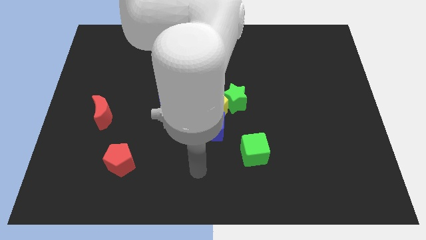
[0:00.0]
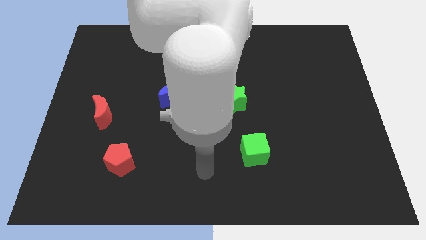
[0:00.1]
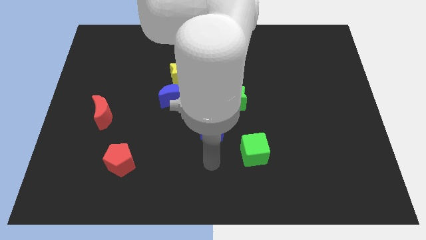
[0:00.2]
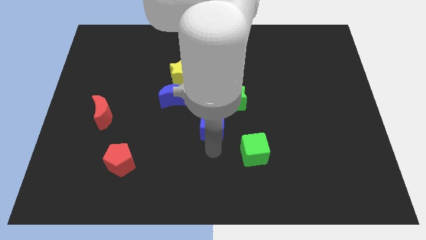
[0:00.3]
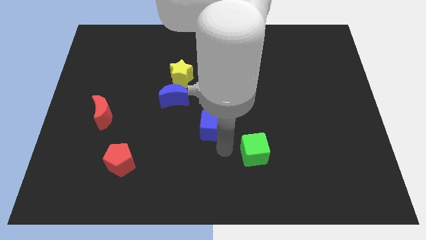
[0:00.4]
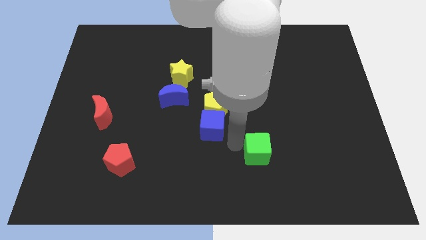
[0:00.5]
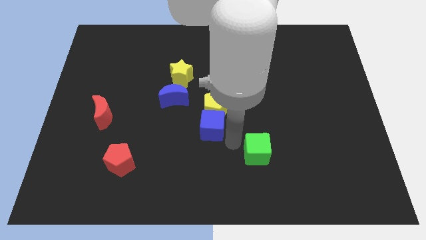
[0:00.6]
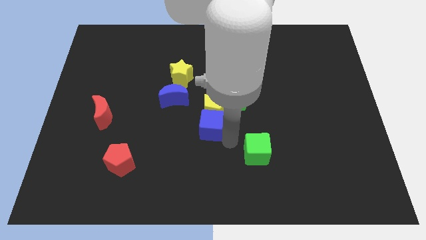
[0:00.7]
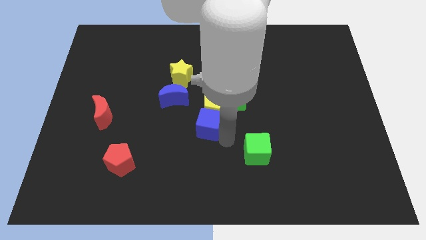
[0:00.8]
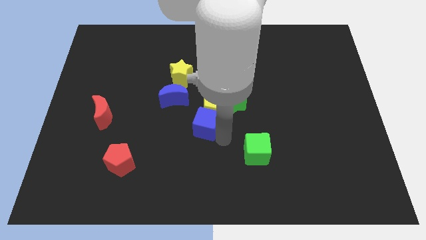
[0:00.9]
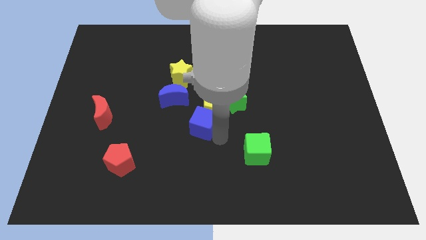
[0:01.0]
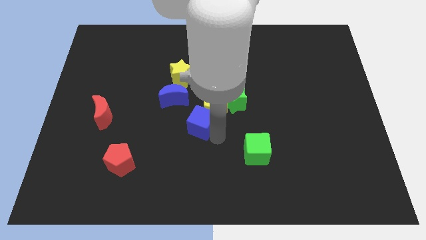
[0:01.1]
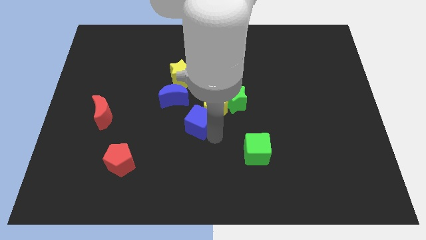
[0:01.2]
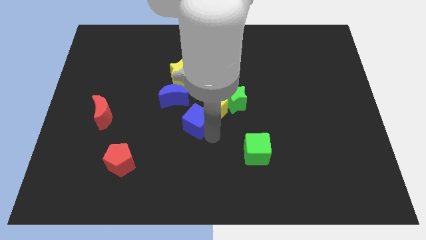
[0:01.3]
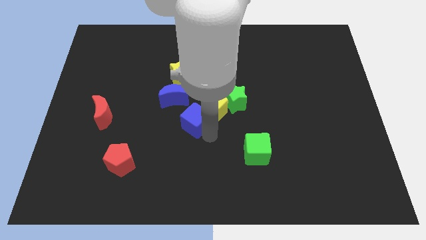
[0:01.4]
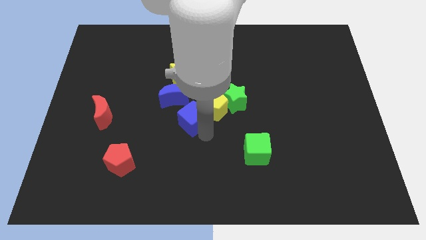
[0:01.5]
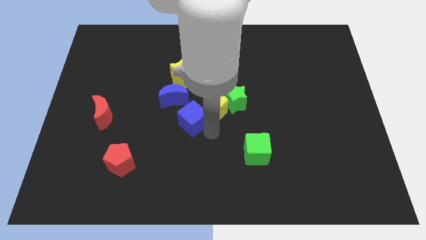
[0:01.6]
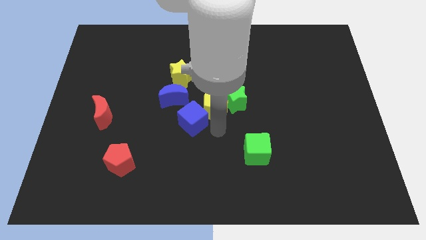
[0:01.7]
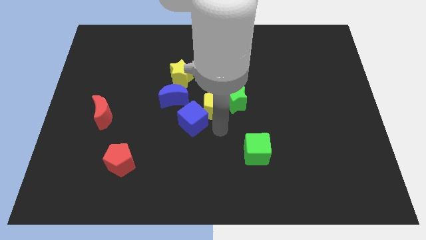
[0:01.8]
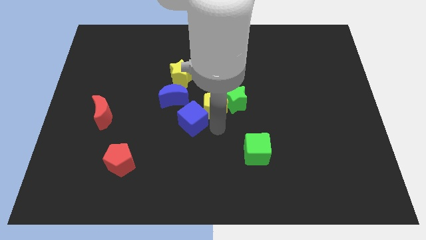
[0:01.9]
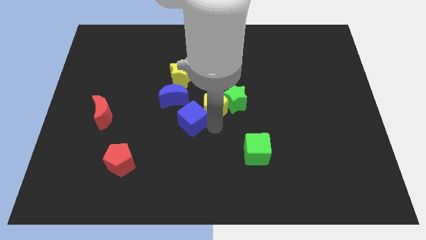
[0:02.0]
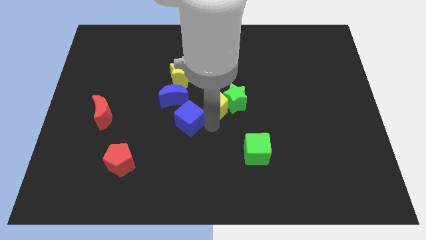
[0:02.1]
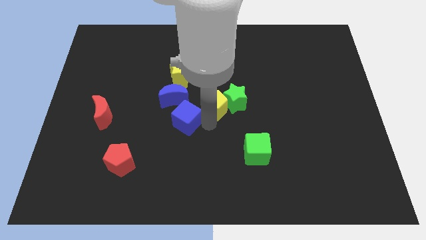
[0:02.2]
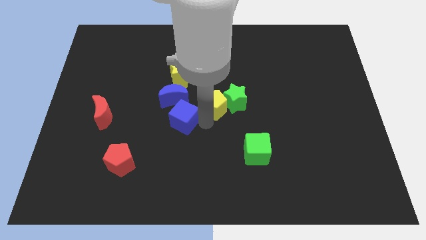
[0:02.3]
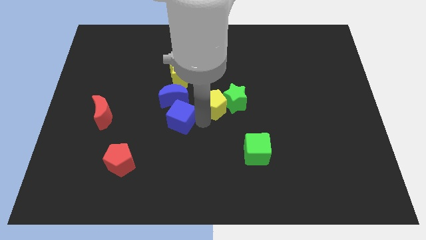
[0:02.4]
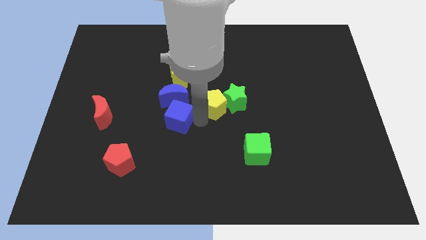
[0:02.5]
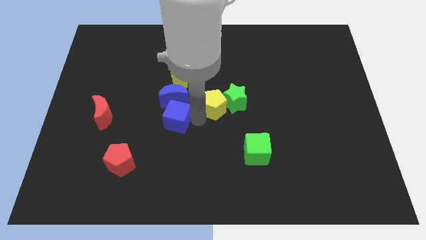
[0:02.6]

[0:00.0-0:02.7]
push the blue cube up and left a little bit

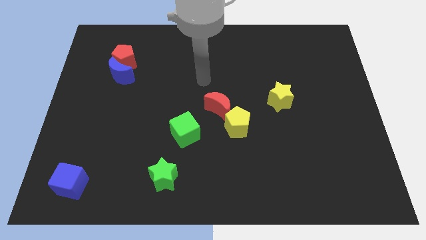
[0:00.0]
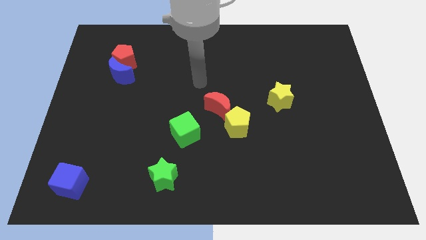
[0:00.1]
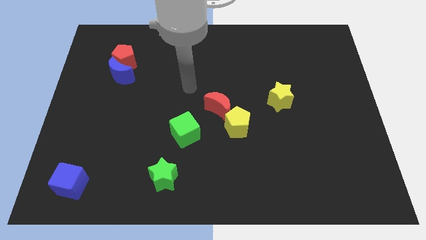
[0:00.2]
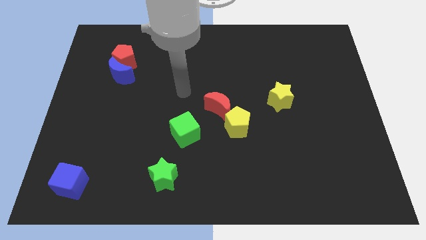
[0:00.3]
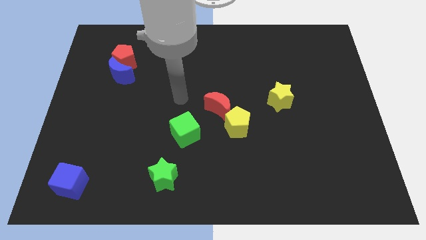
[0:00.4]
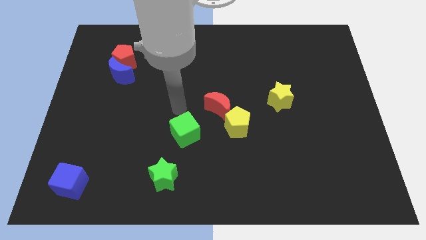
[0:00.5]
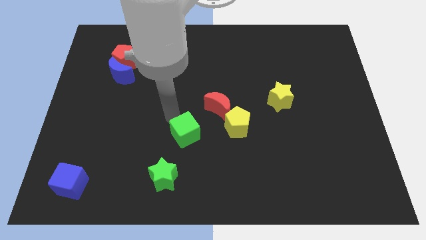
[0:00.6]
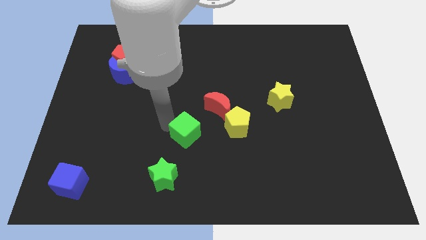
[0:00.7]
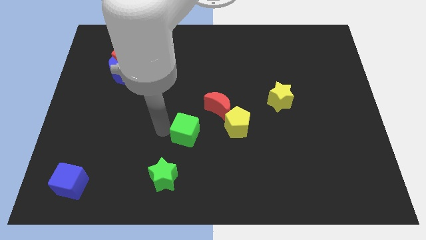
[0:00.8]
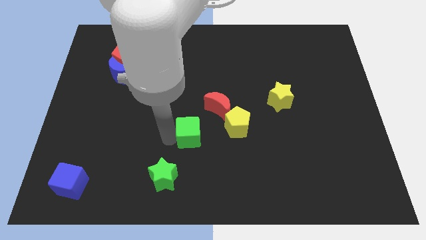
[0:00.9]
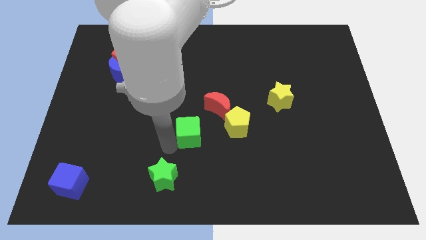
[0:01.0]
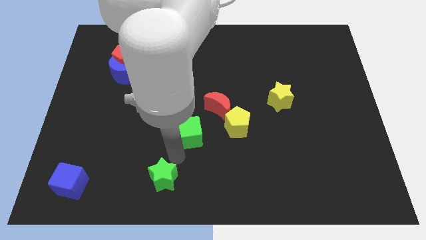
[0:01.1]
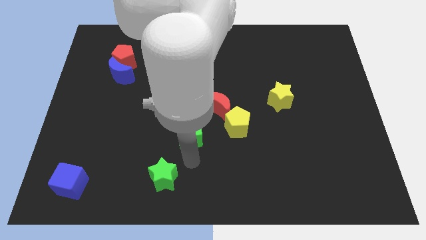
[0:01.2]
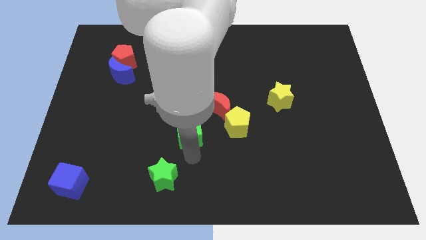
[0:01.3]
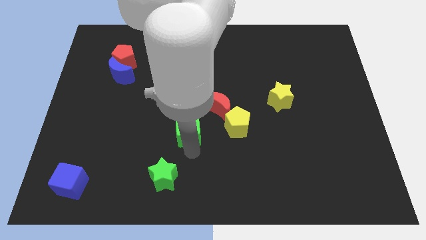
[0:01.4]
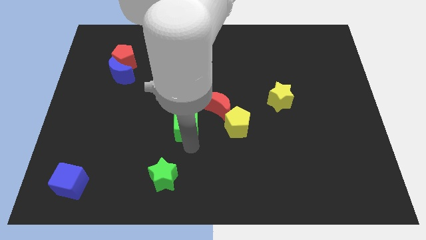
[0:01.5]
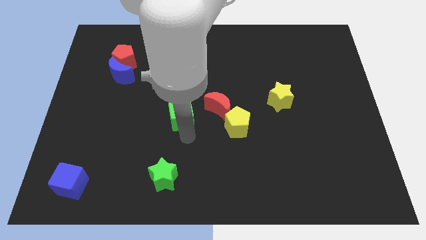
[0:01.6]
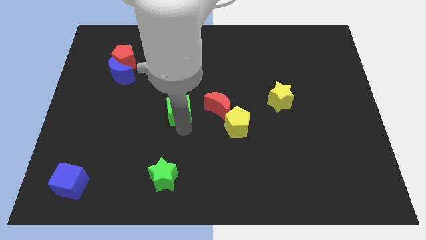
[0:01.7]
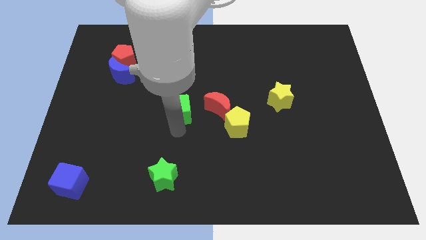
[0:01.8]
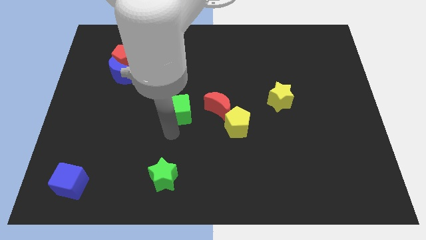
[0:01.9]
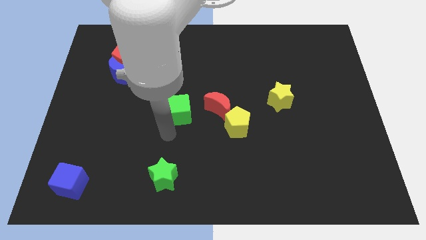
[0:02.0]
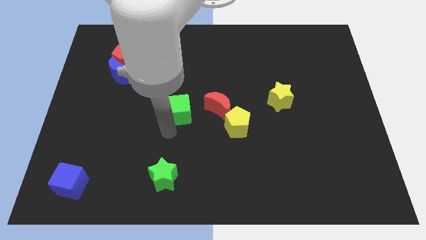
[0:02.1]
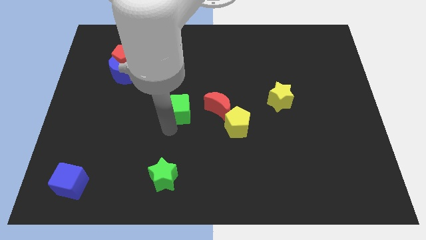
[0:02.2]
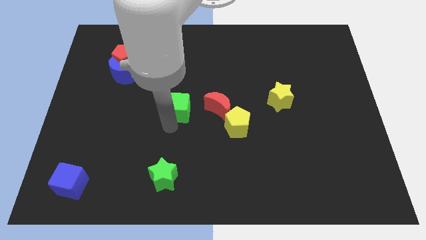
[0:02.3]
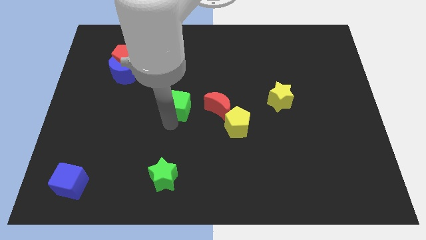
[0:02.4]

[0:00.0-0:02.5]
slide the green cube slightly up

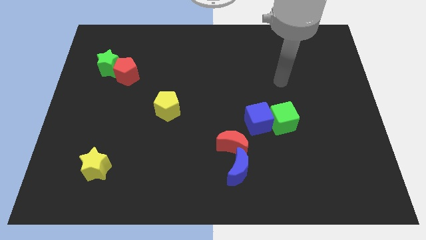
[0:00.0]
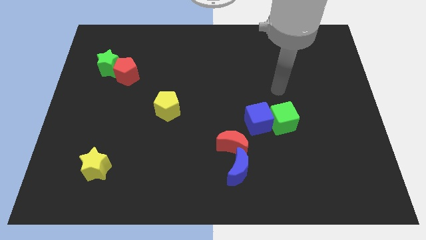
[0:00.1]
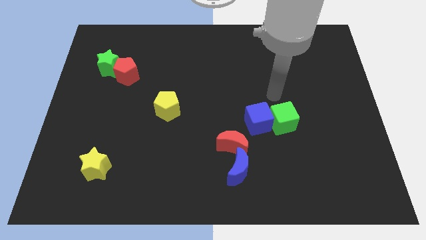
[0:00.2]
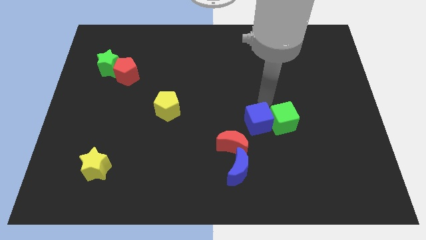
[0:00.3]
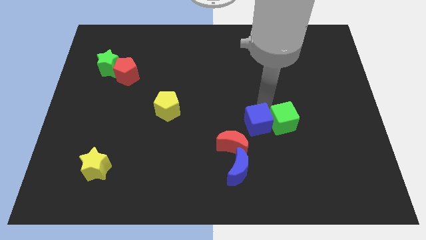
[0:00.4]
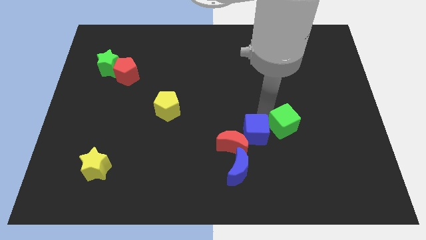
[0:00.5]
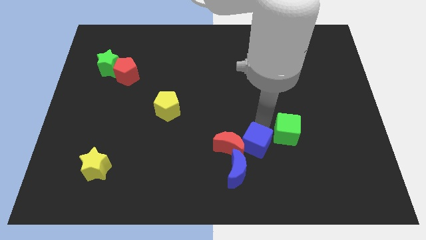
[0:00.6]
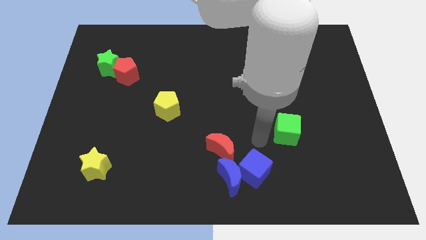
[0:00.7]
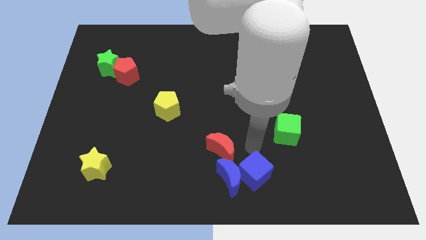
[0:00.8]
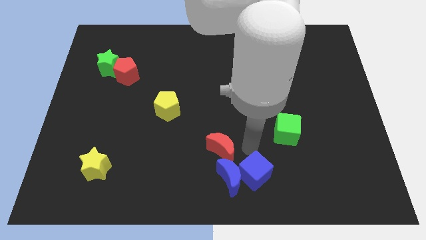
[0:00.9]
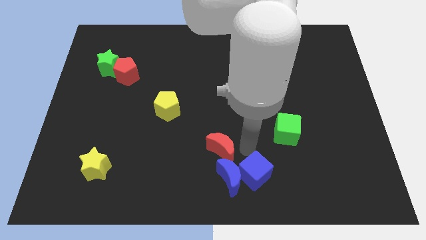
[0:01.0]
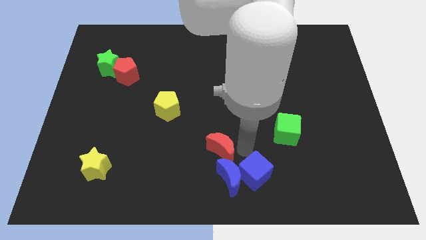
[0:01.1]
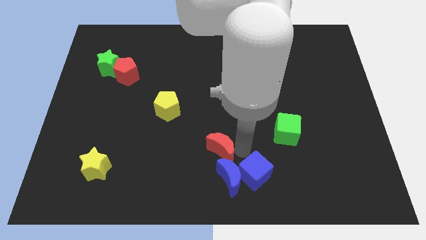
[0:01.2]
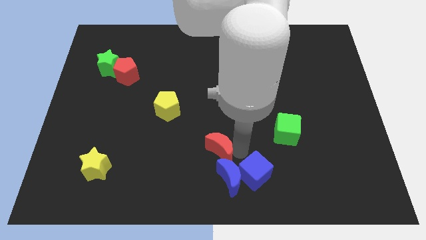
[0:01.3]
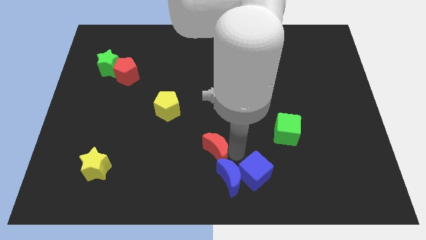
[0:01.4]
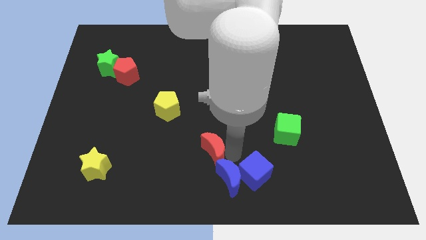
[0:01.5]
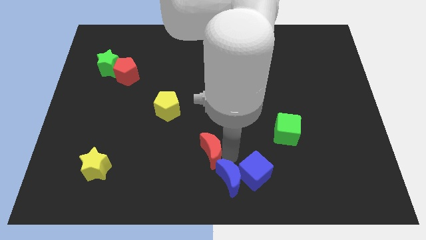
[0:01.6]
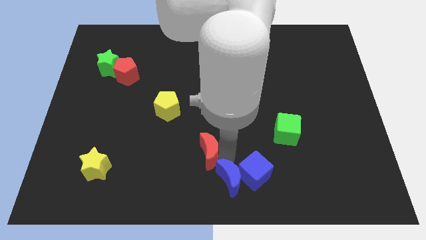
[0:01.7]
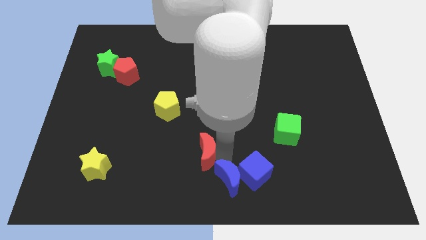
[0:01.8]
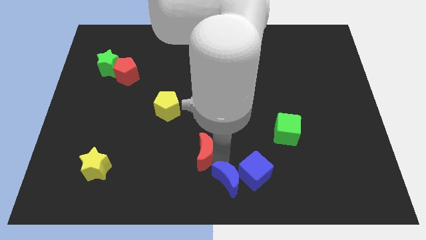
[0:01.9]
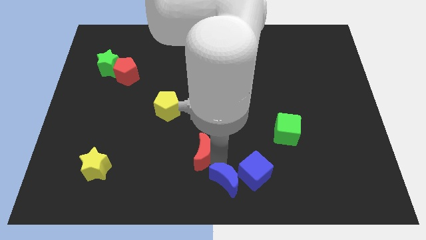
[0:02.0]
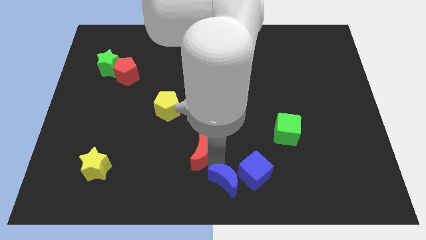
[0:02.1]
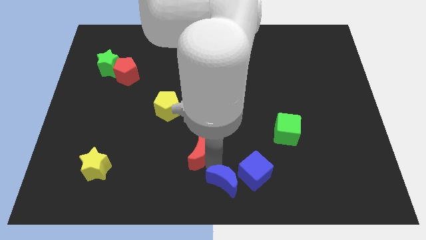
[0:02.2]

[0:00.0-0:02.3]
push the red moon a bit to the left

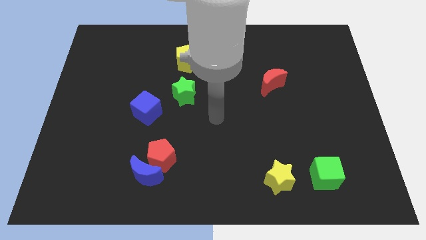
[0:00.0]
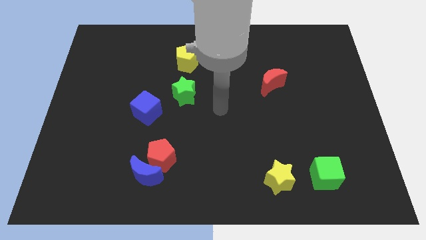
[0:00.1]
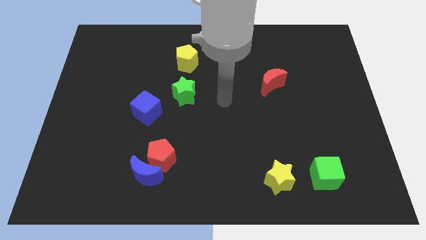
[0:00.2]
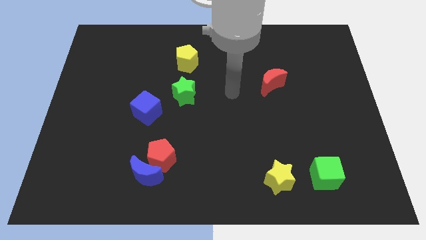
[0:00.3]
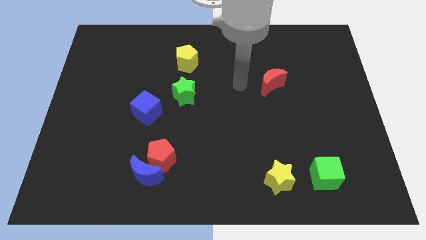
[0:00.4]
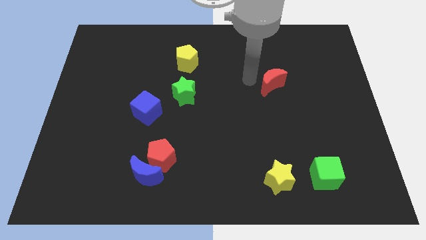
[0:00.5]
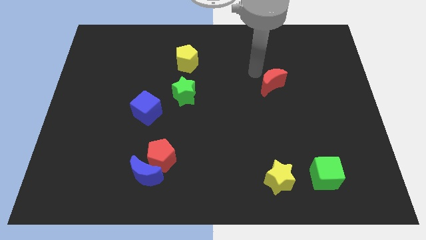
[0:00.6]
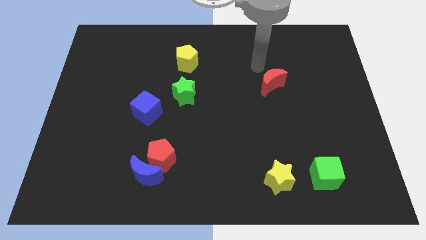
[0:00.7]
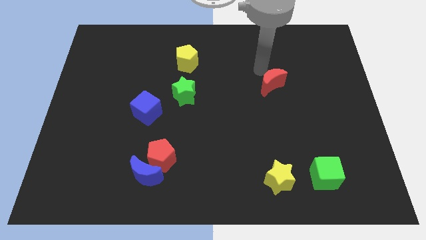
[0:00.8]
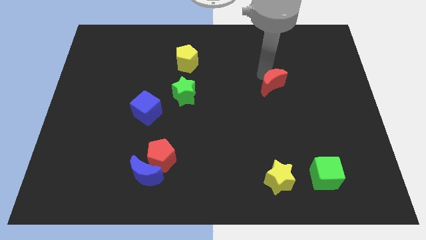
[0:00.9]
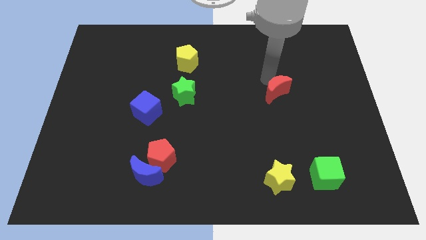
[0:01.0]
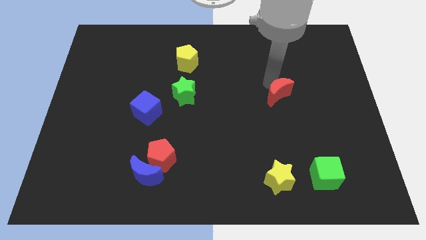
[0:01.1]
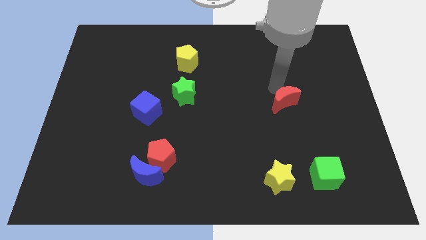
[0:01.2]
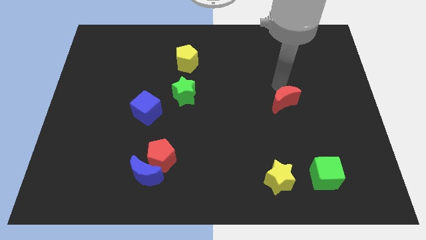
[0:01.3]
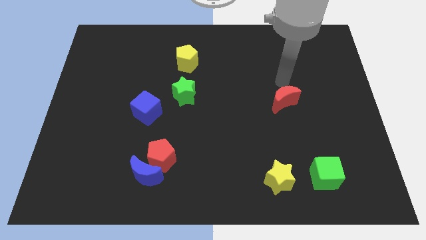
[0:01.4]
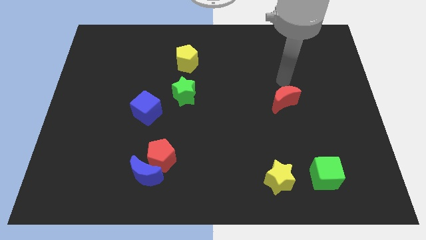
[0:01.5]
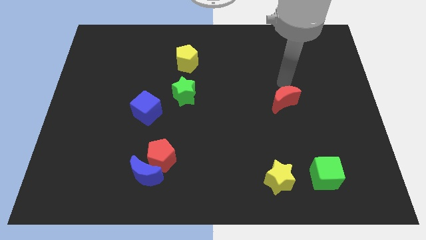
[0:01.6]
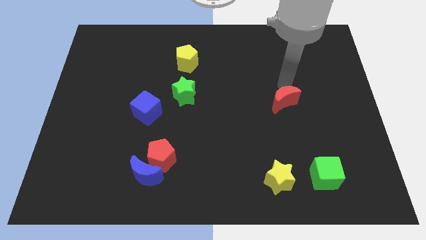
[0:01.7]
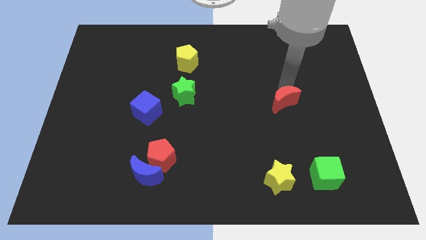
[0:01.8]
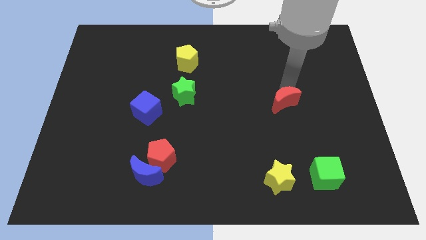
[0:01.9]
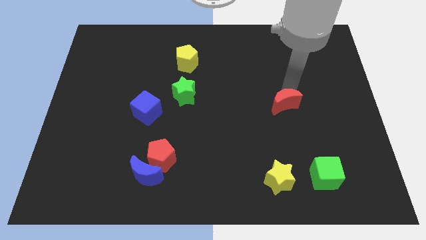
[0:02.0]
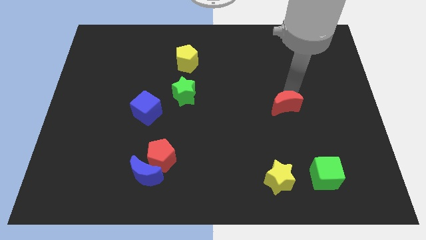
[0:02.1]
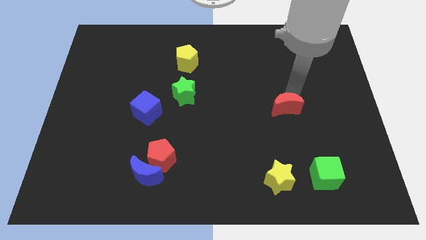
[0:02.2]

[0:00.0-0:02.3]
slightly push the red moon down
